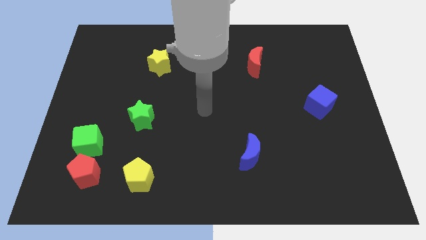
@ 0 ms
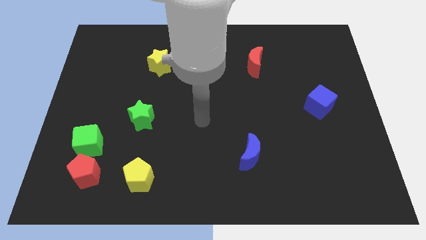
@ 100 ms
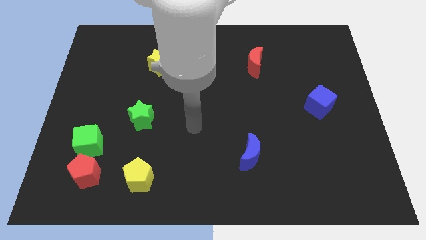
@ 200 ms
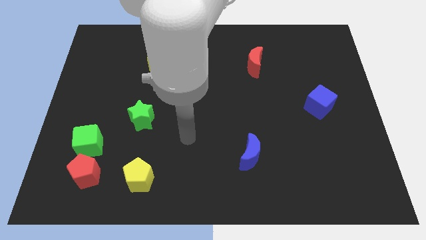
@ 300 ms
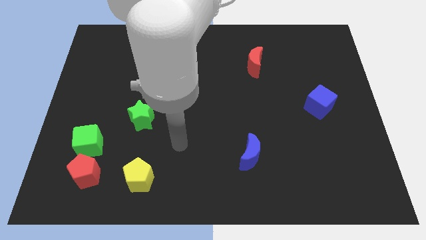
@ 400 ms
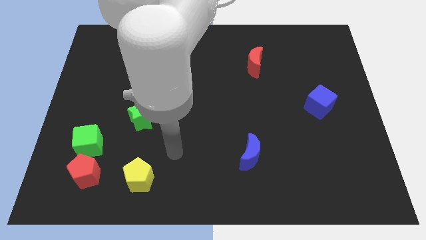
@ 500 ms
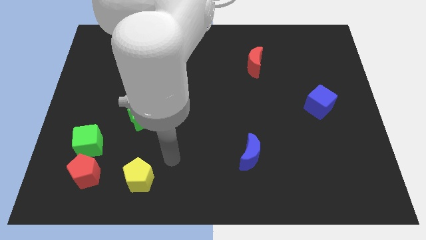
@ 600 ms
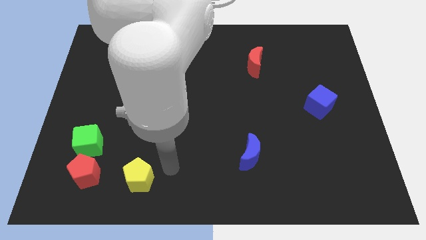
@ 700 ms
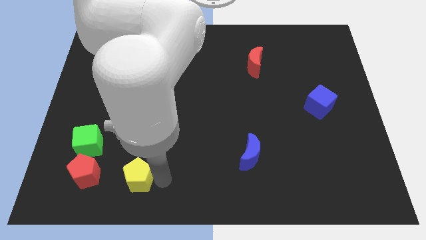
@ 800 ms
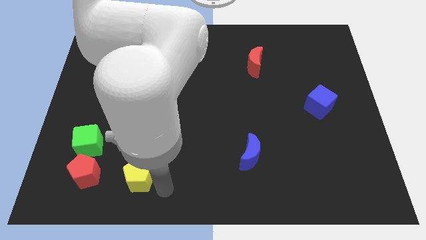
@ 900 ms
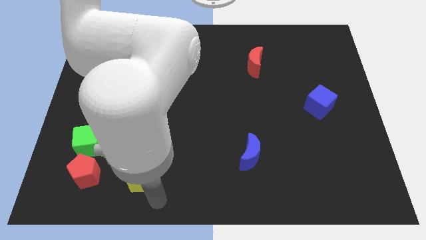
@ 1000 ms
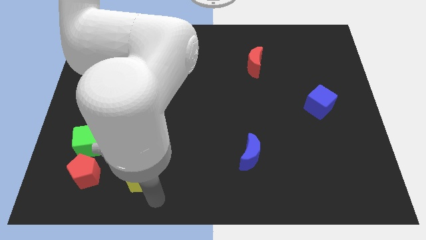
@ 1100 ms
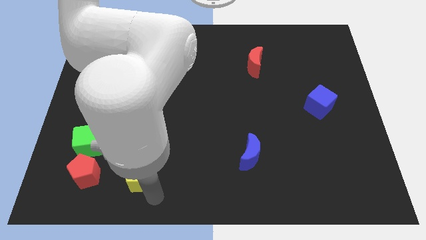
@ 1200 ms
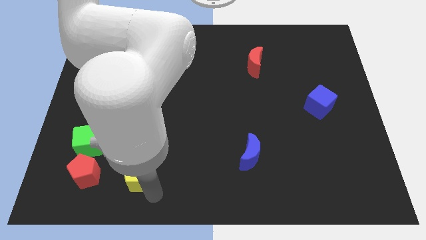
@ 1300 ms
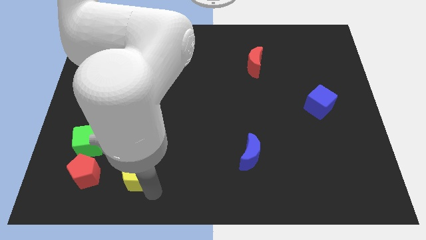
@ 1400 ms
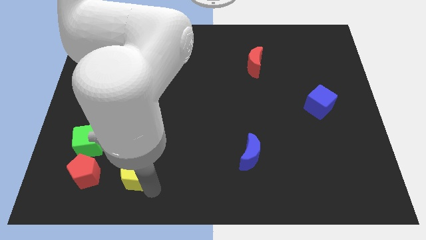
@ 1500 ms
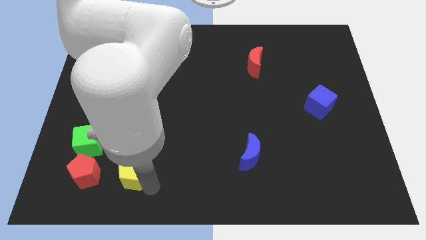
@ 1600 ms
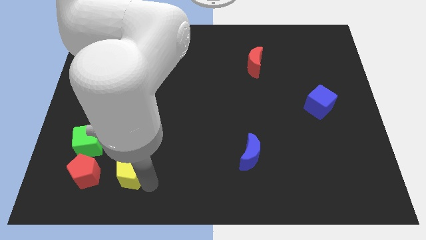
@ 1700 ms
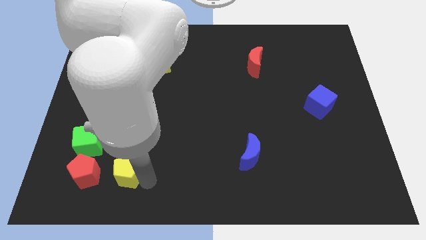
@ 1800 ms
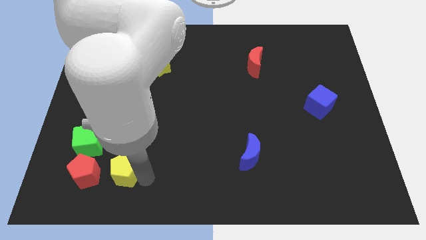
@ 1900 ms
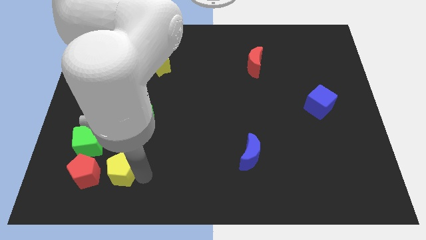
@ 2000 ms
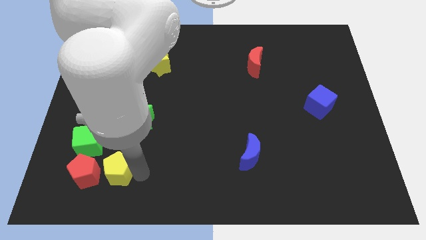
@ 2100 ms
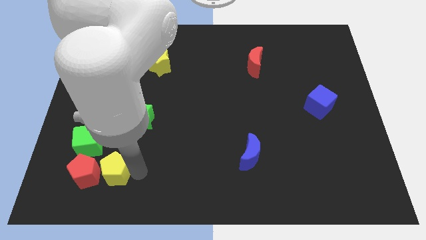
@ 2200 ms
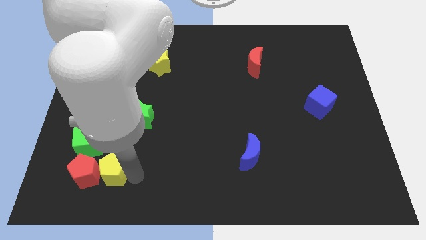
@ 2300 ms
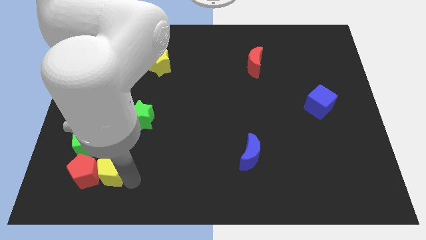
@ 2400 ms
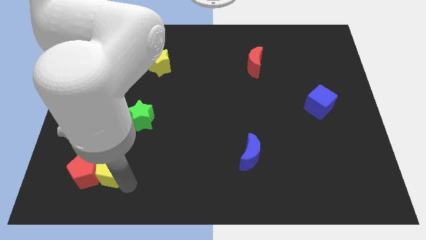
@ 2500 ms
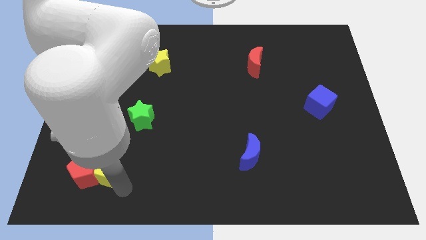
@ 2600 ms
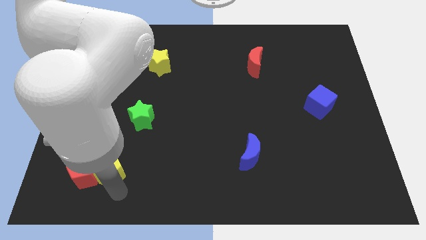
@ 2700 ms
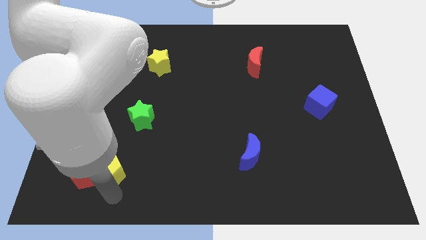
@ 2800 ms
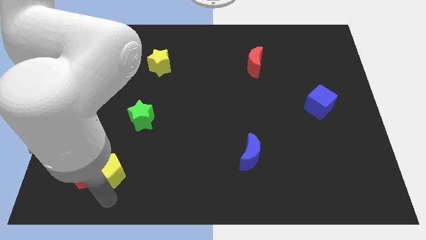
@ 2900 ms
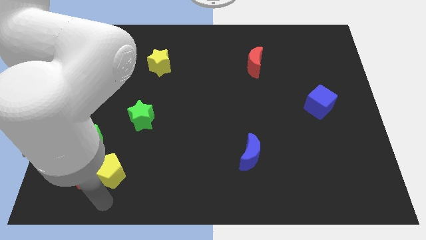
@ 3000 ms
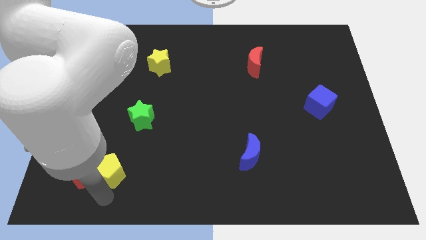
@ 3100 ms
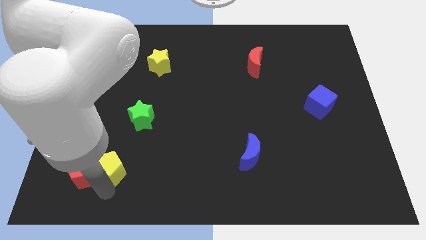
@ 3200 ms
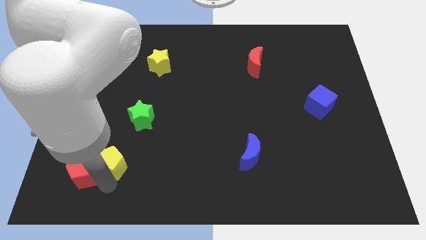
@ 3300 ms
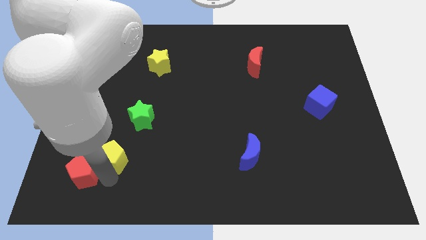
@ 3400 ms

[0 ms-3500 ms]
slide the yellow pentagon a bit up and then left

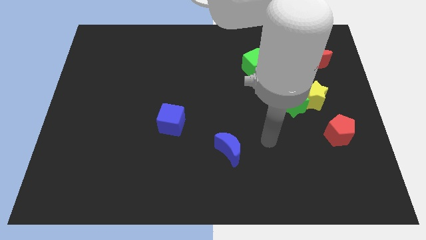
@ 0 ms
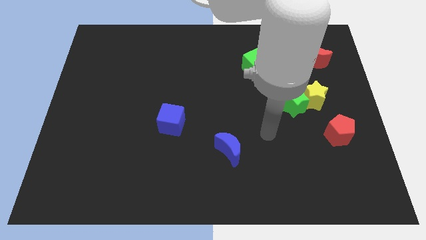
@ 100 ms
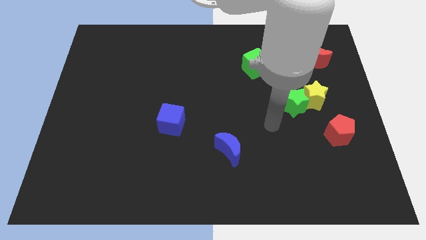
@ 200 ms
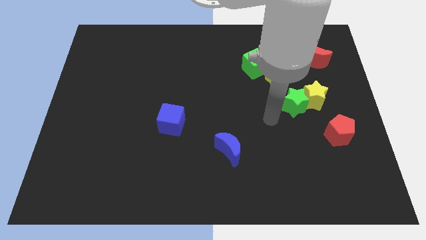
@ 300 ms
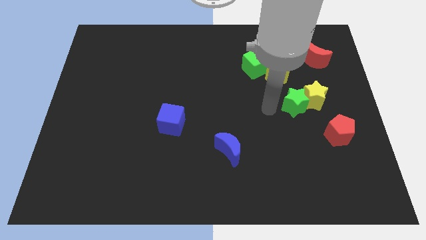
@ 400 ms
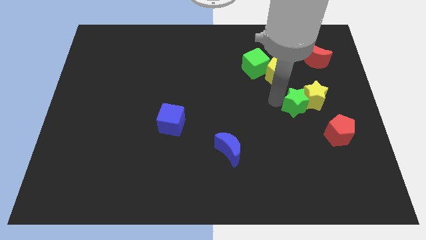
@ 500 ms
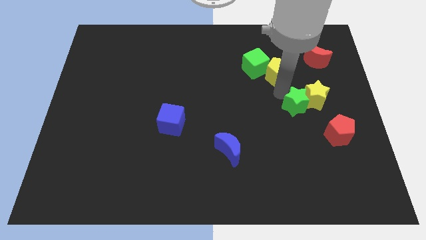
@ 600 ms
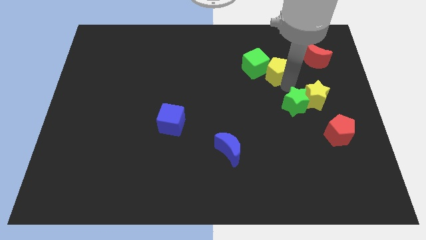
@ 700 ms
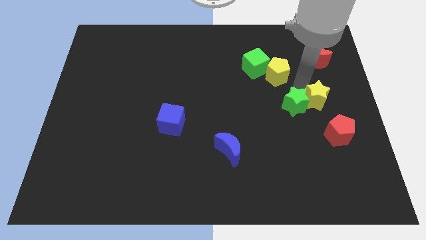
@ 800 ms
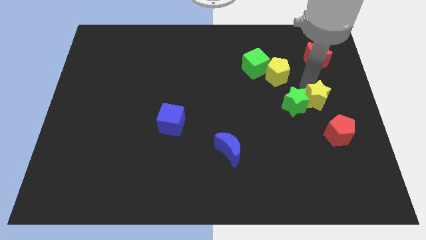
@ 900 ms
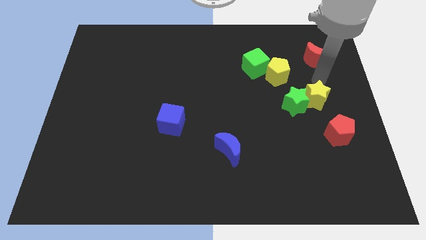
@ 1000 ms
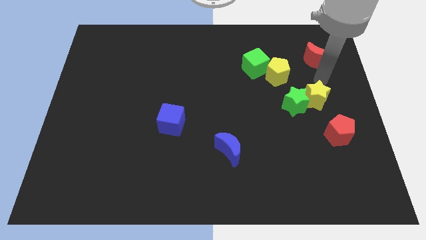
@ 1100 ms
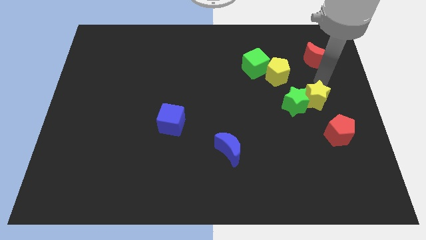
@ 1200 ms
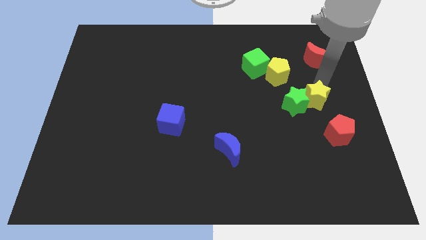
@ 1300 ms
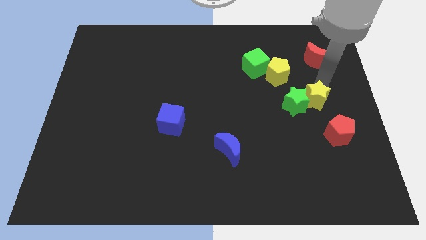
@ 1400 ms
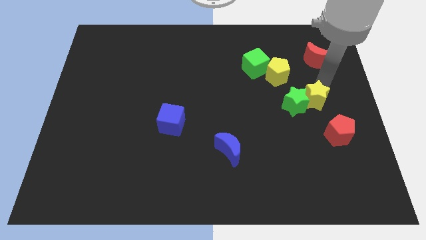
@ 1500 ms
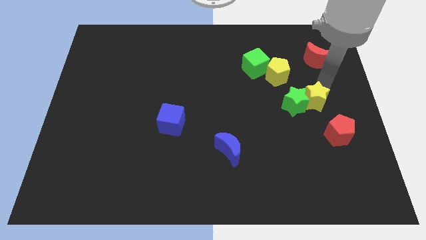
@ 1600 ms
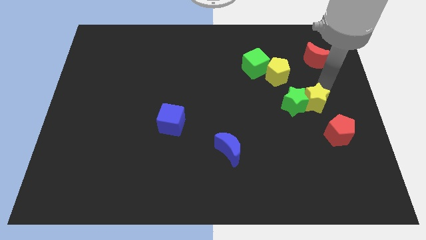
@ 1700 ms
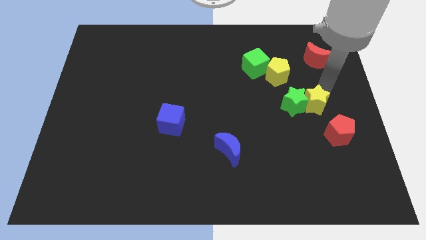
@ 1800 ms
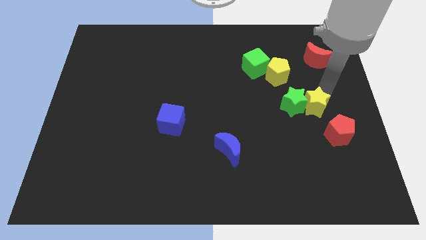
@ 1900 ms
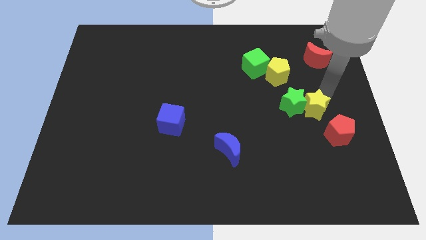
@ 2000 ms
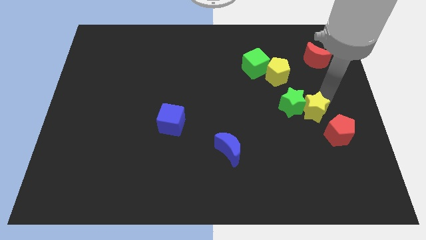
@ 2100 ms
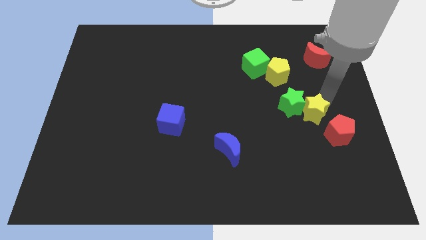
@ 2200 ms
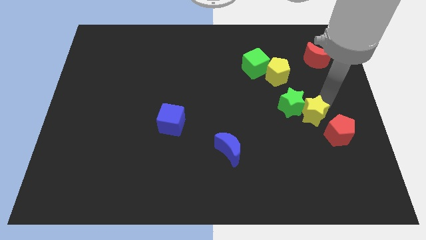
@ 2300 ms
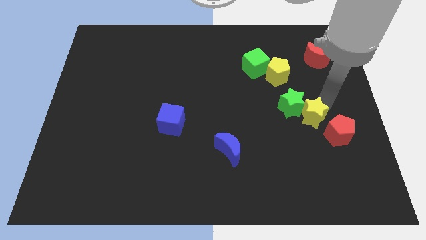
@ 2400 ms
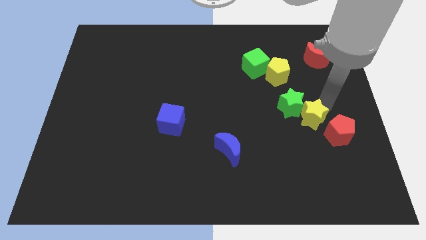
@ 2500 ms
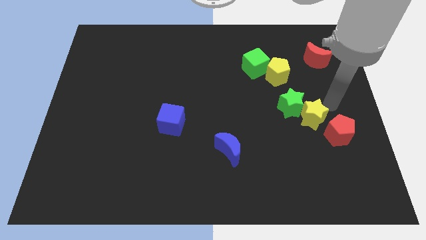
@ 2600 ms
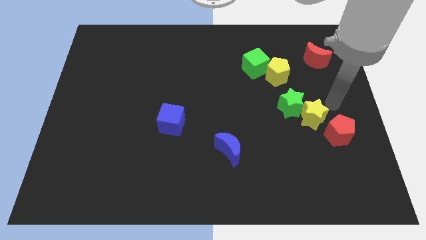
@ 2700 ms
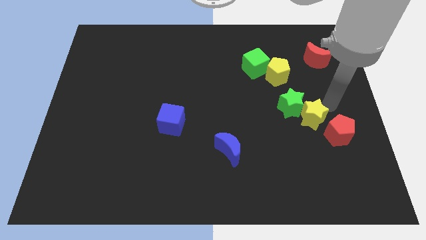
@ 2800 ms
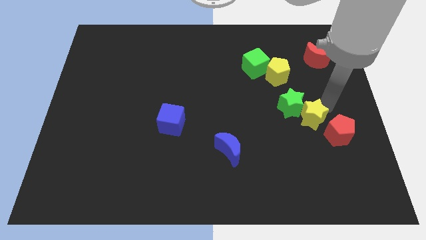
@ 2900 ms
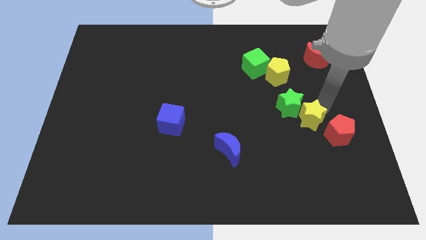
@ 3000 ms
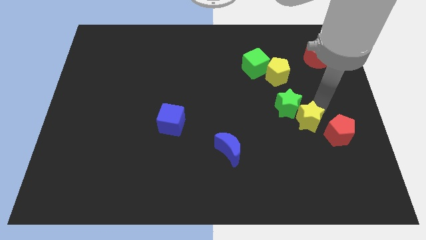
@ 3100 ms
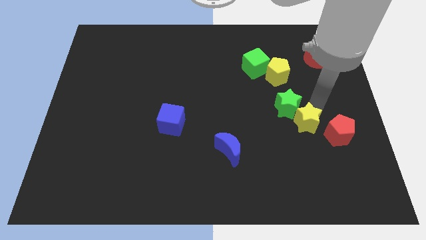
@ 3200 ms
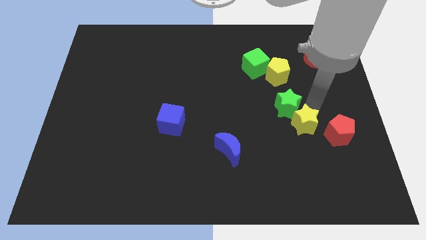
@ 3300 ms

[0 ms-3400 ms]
slightly move the yellow star downwards and left

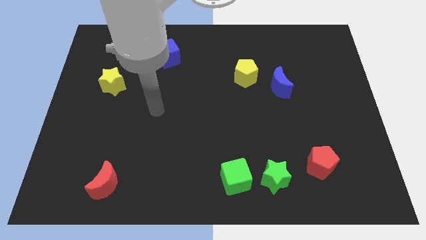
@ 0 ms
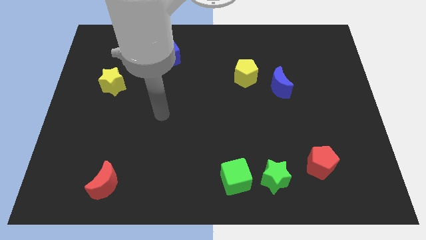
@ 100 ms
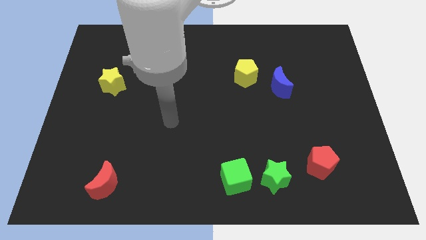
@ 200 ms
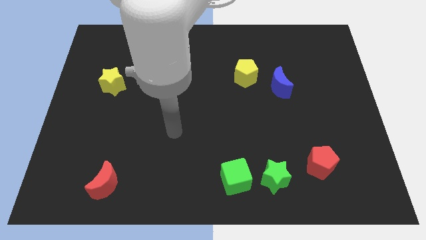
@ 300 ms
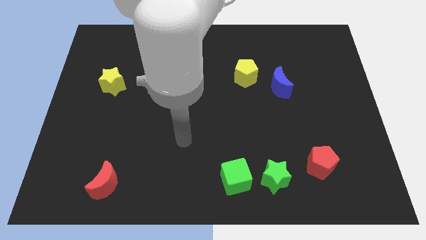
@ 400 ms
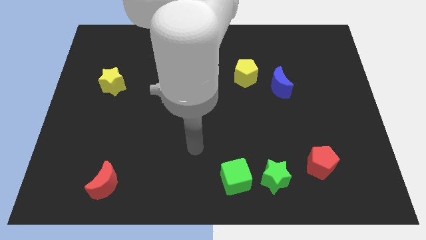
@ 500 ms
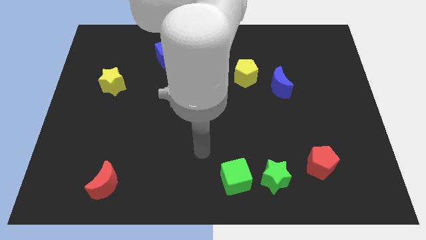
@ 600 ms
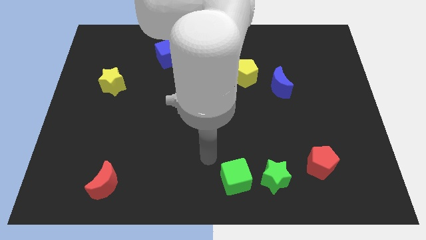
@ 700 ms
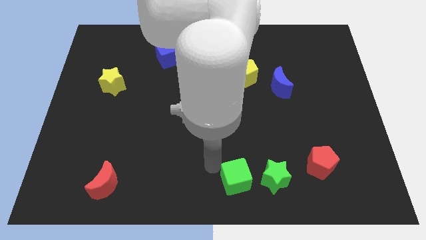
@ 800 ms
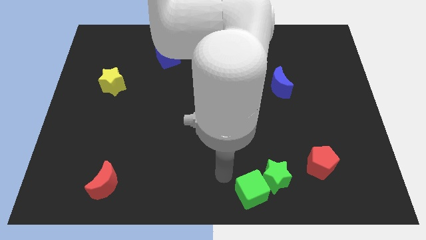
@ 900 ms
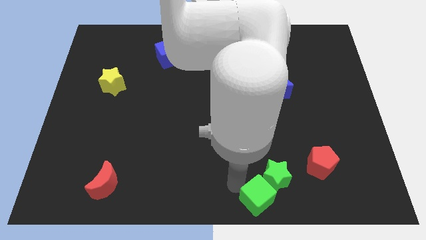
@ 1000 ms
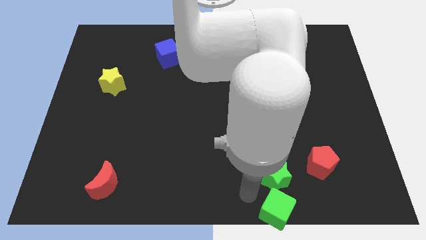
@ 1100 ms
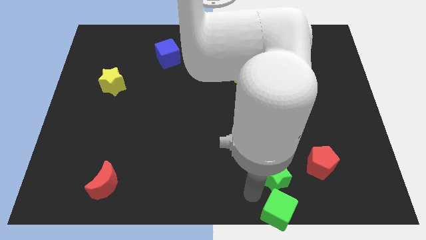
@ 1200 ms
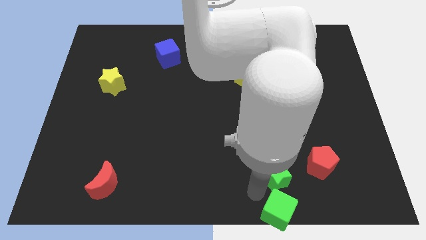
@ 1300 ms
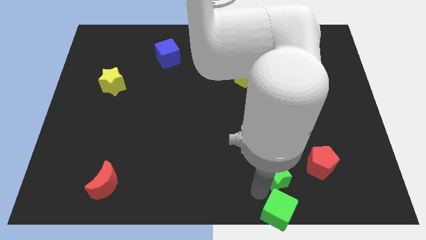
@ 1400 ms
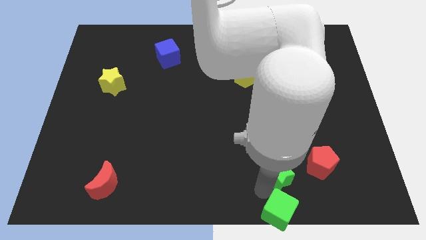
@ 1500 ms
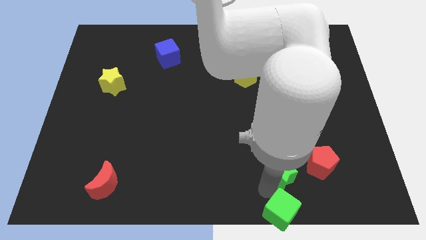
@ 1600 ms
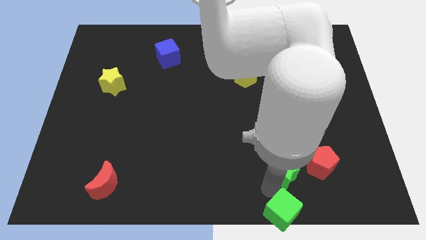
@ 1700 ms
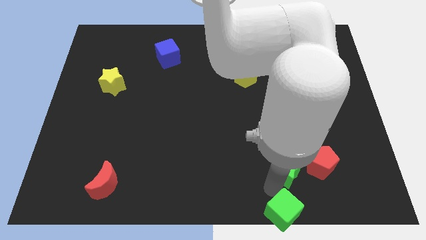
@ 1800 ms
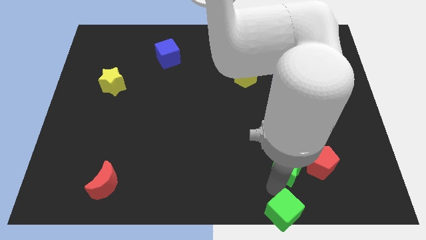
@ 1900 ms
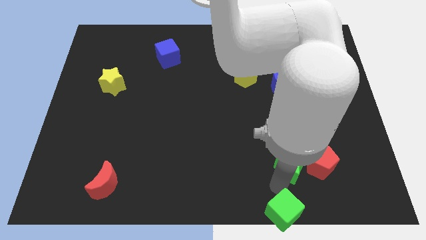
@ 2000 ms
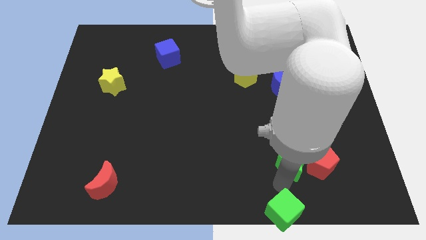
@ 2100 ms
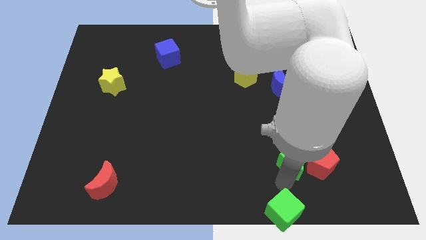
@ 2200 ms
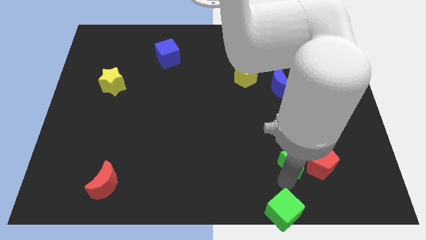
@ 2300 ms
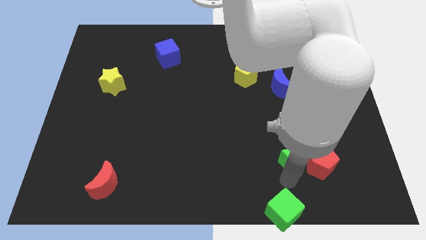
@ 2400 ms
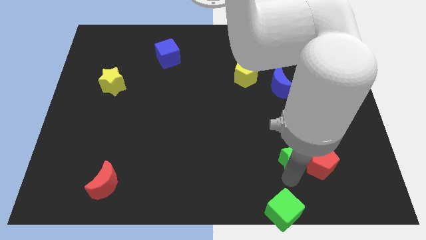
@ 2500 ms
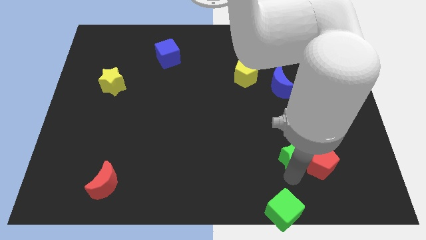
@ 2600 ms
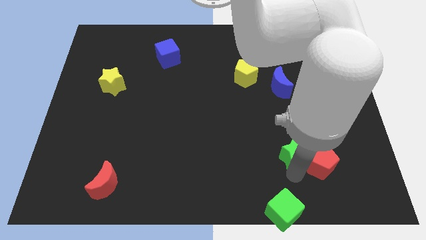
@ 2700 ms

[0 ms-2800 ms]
push the green star upwards and then to the right a little
